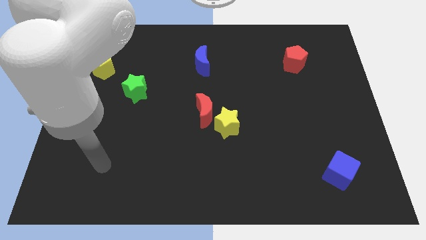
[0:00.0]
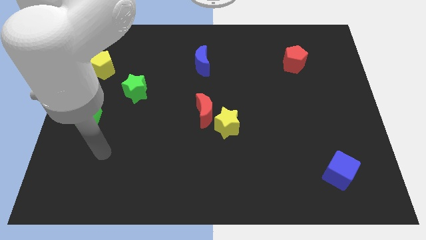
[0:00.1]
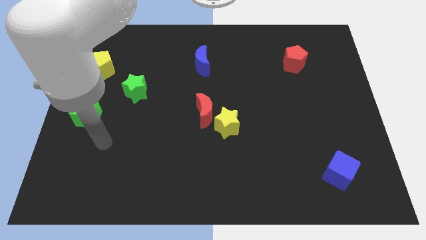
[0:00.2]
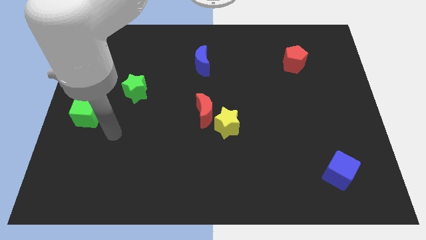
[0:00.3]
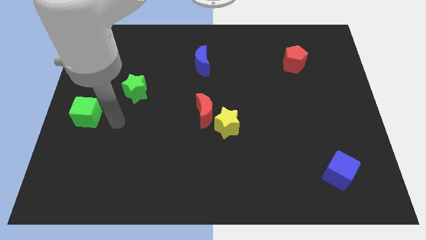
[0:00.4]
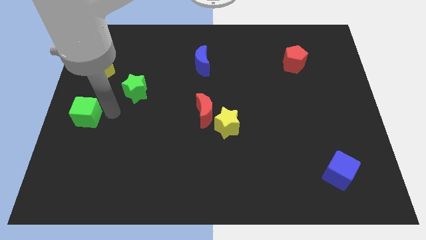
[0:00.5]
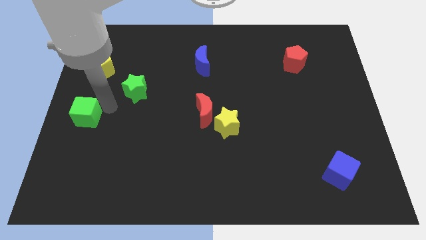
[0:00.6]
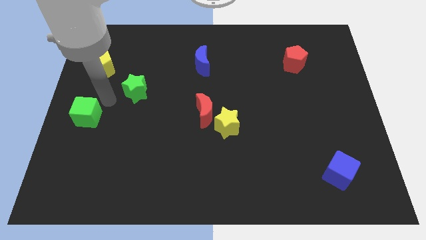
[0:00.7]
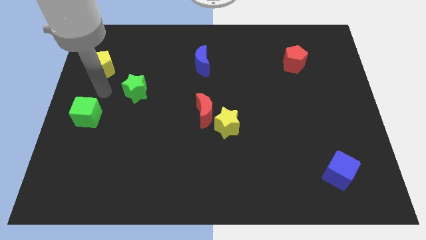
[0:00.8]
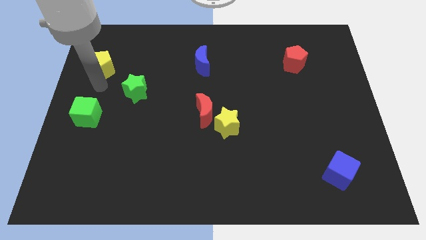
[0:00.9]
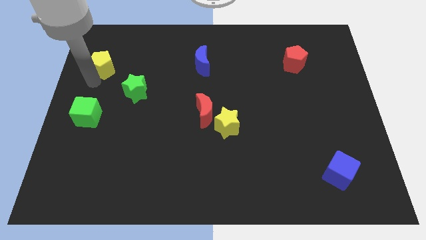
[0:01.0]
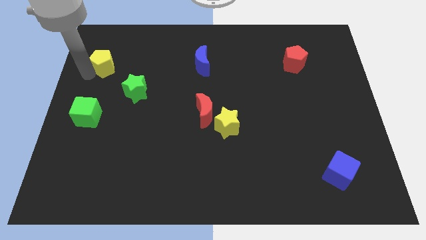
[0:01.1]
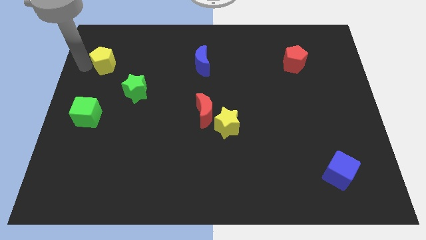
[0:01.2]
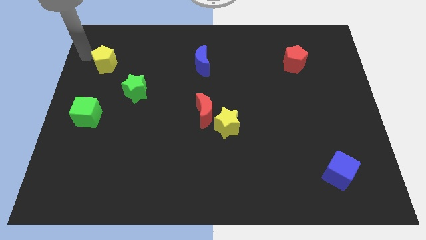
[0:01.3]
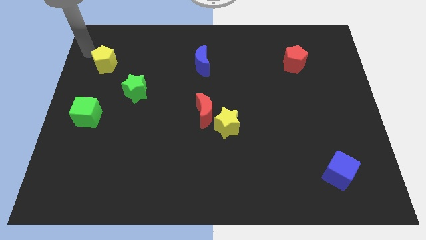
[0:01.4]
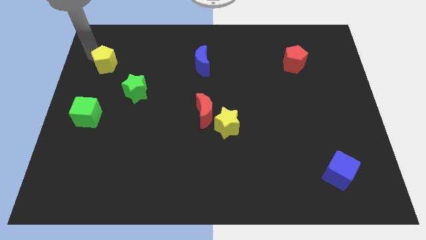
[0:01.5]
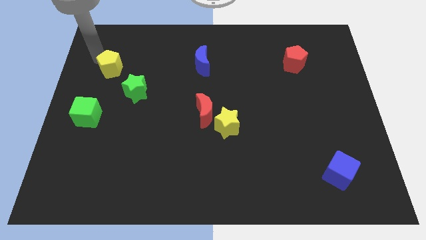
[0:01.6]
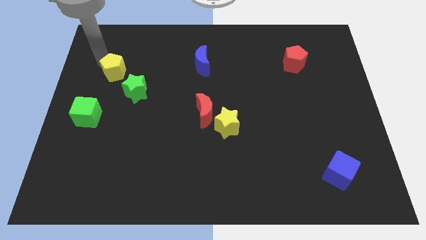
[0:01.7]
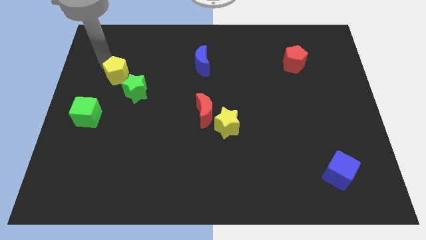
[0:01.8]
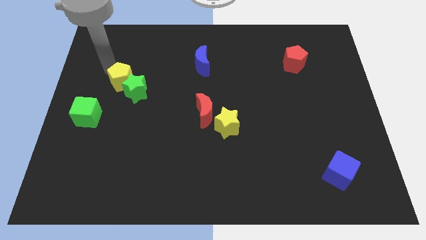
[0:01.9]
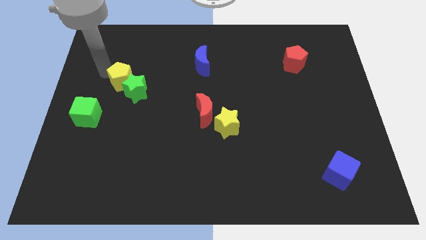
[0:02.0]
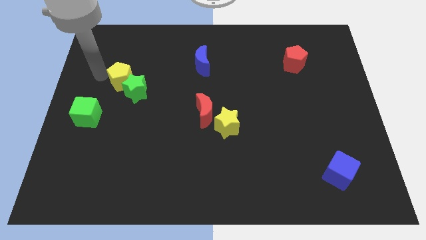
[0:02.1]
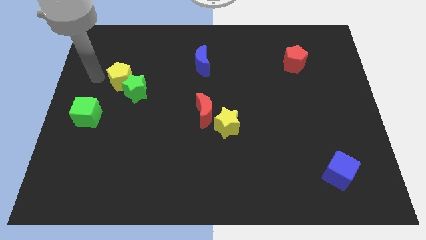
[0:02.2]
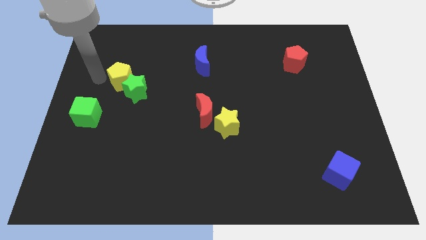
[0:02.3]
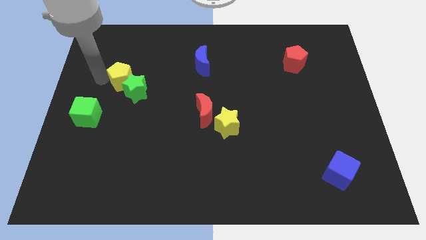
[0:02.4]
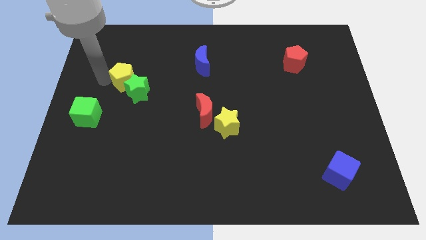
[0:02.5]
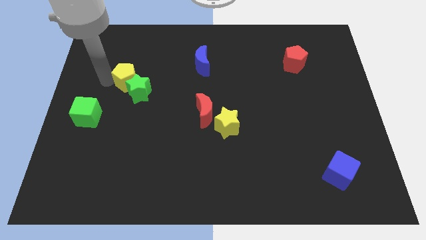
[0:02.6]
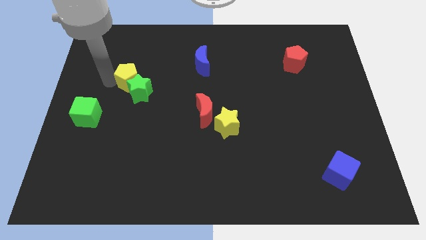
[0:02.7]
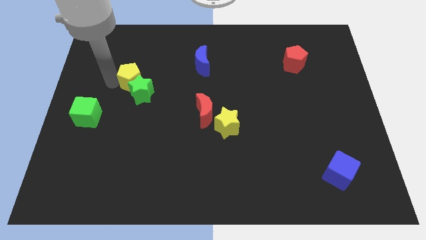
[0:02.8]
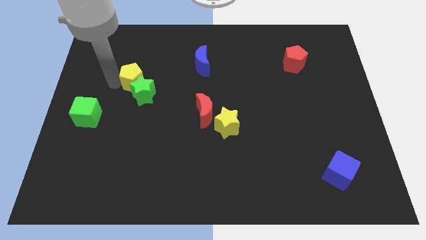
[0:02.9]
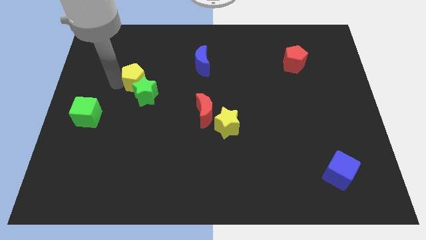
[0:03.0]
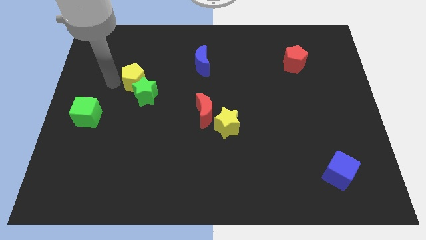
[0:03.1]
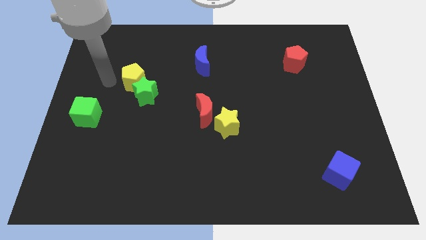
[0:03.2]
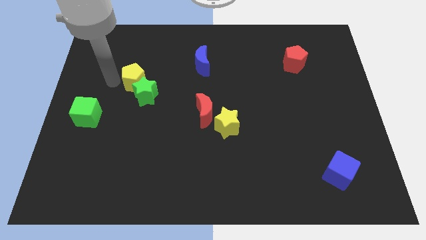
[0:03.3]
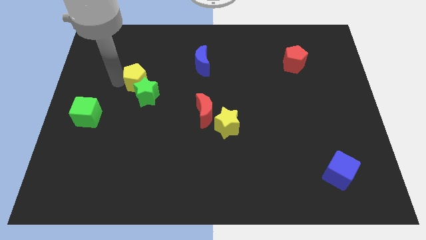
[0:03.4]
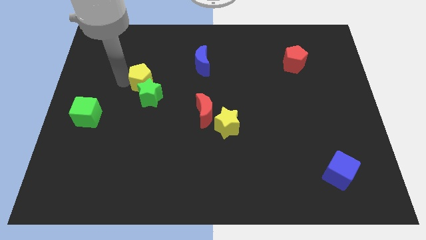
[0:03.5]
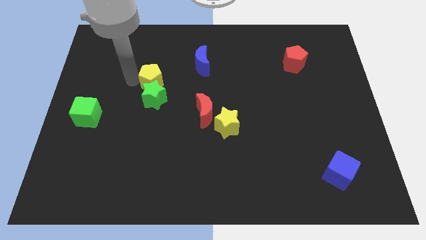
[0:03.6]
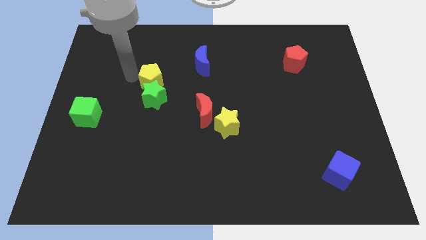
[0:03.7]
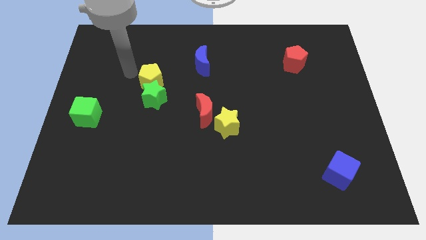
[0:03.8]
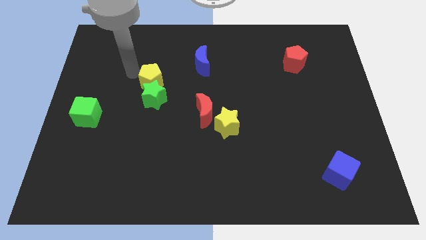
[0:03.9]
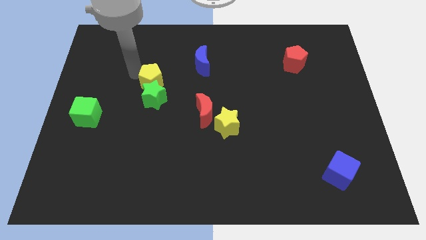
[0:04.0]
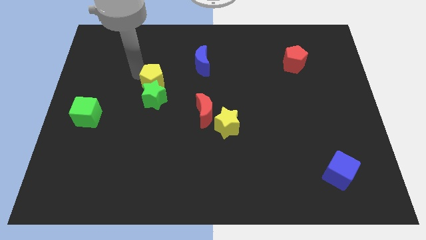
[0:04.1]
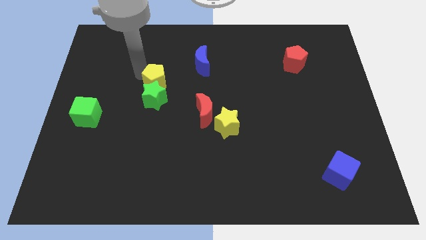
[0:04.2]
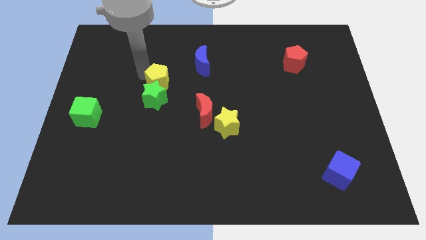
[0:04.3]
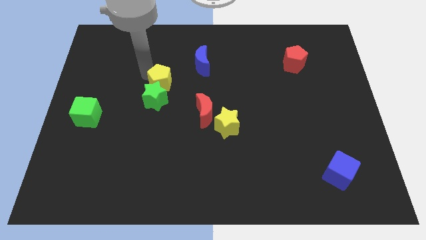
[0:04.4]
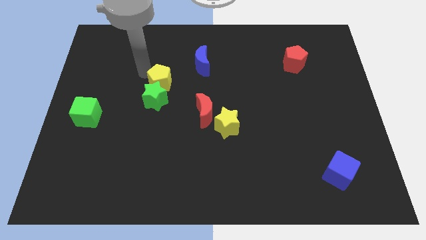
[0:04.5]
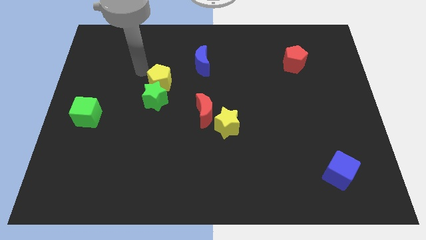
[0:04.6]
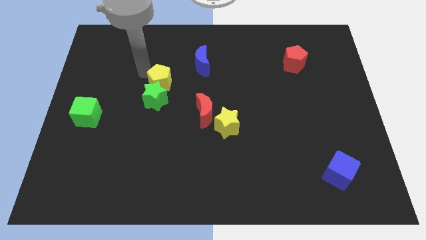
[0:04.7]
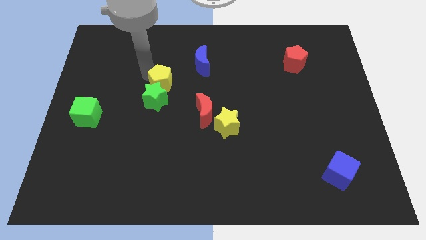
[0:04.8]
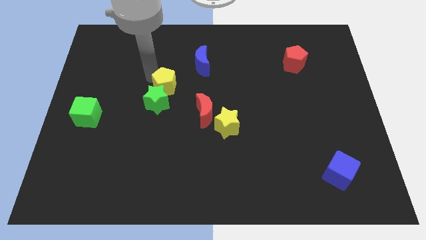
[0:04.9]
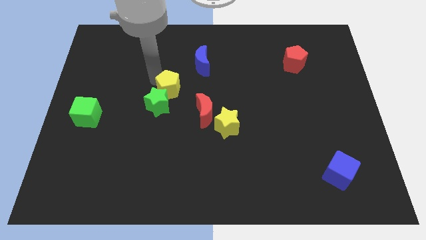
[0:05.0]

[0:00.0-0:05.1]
move the yellow pentagon to the center

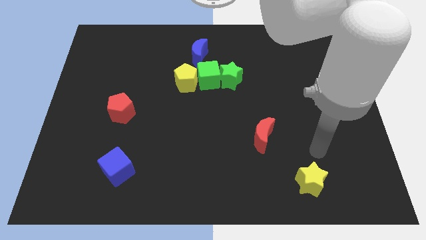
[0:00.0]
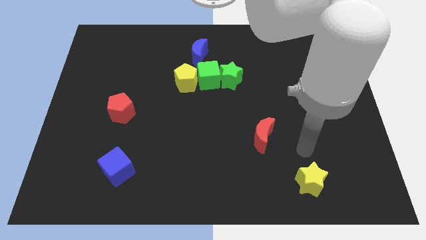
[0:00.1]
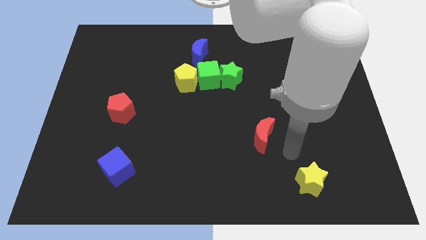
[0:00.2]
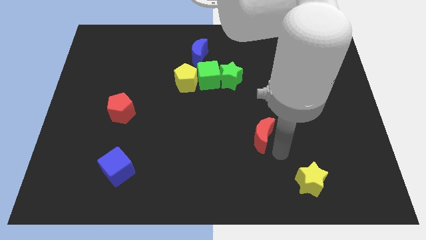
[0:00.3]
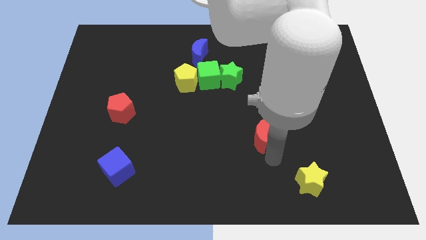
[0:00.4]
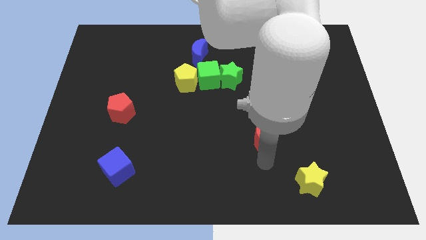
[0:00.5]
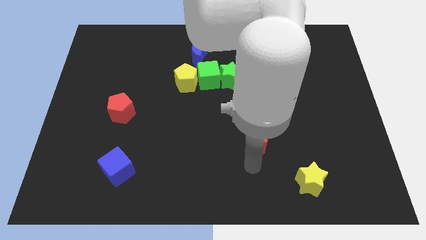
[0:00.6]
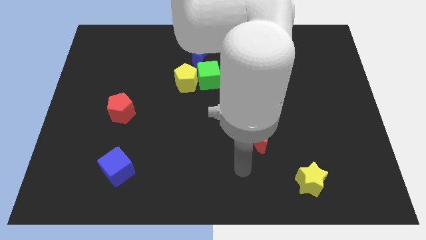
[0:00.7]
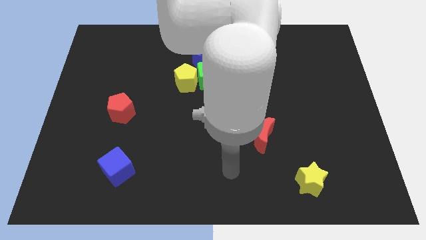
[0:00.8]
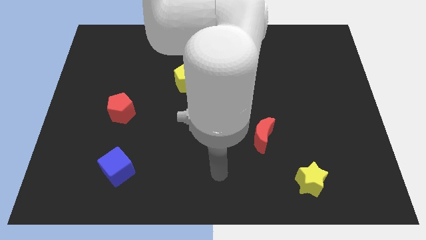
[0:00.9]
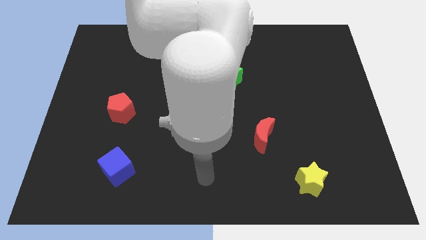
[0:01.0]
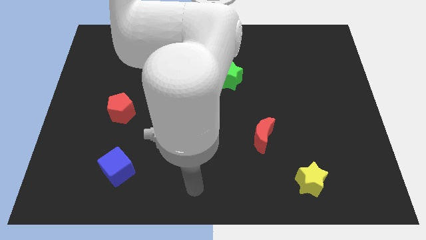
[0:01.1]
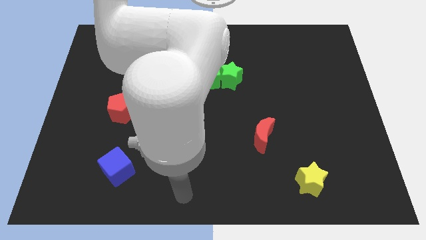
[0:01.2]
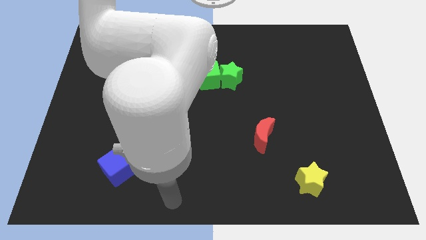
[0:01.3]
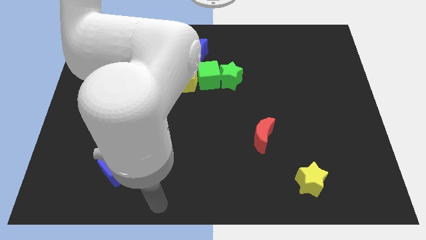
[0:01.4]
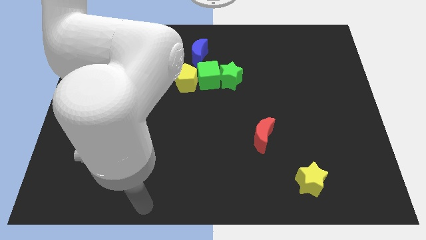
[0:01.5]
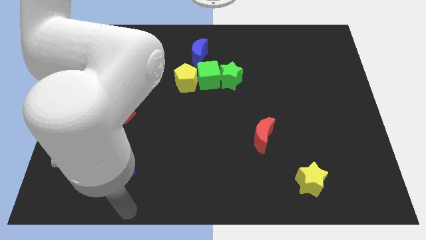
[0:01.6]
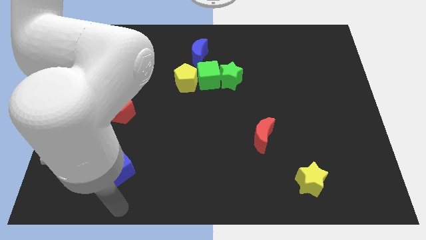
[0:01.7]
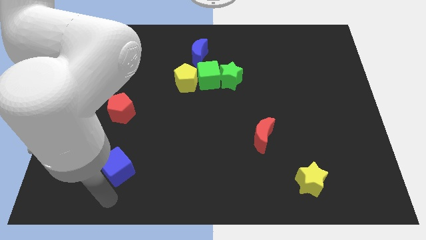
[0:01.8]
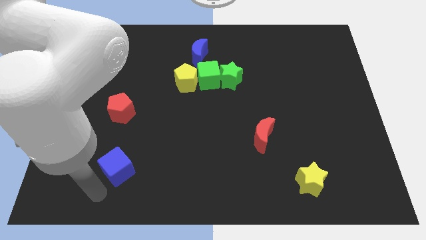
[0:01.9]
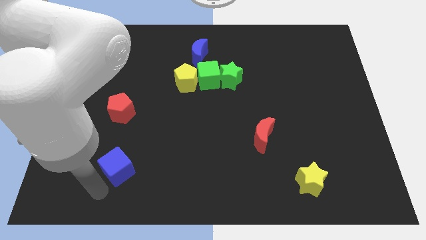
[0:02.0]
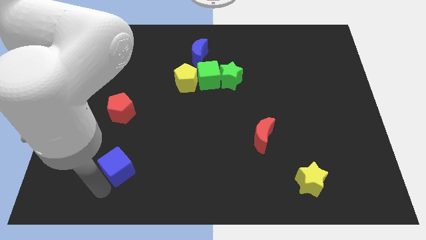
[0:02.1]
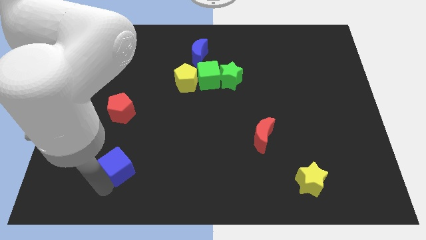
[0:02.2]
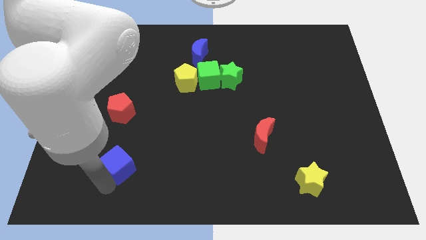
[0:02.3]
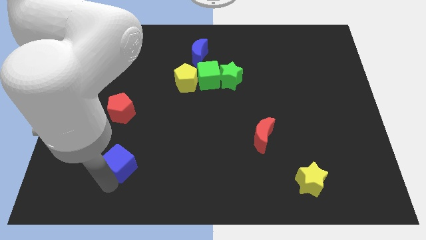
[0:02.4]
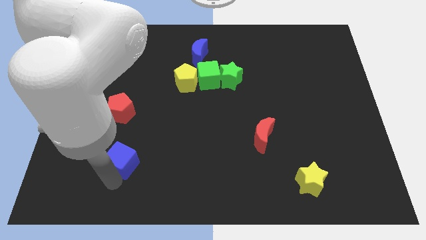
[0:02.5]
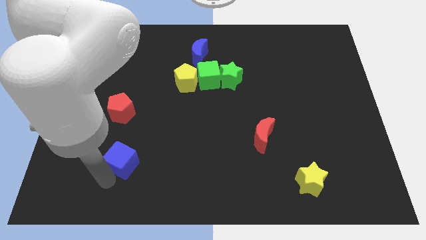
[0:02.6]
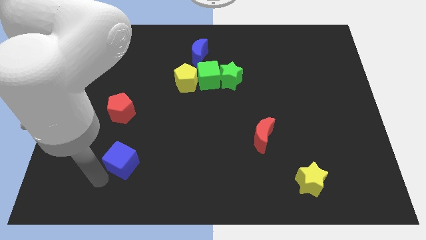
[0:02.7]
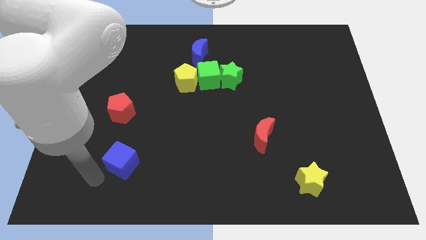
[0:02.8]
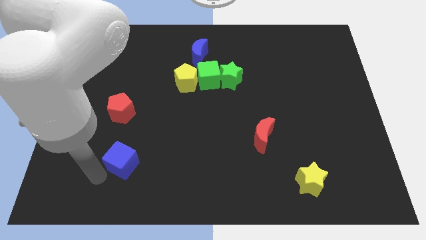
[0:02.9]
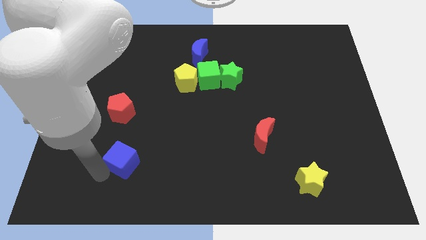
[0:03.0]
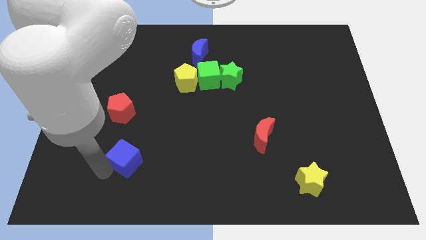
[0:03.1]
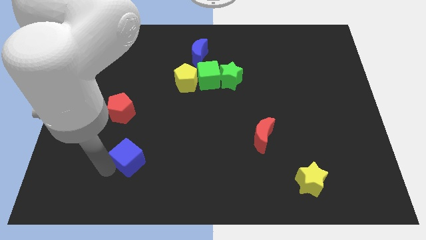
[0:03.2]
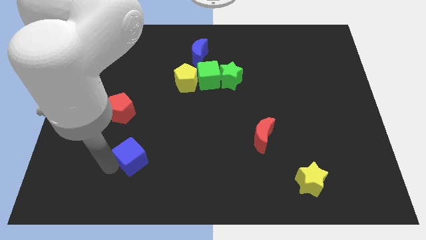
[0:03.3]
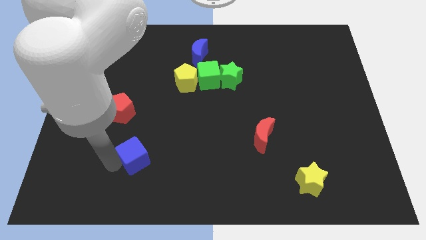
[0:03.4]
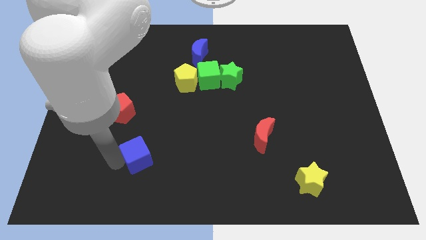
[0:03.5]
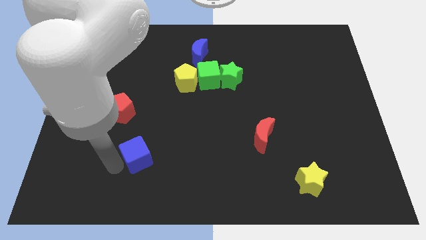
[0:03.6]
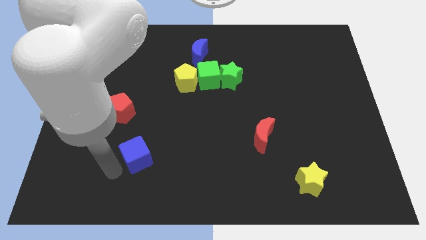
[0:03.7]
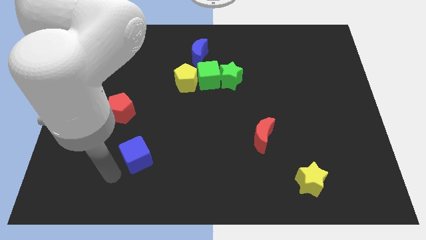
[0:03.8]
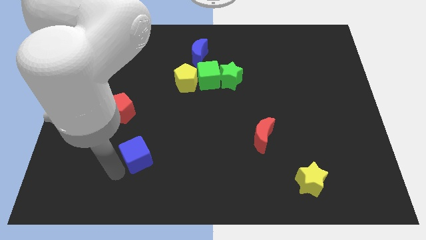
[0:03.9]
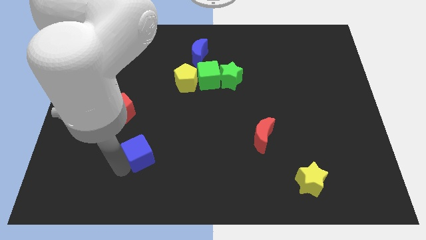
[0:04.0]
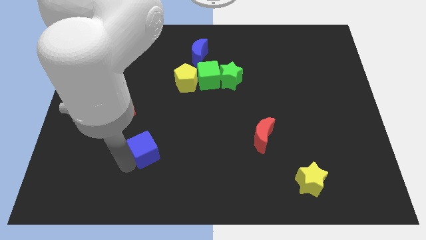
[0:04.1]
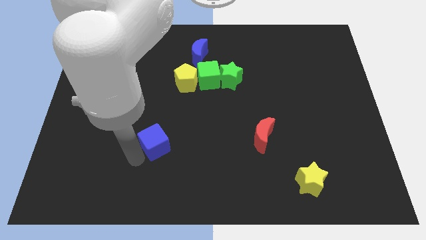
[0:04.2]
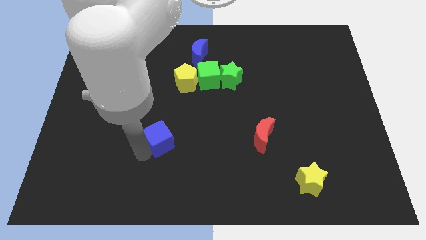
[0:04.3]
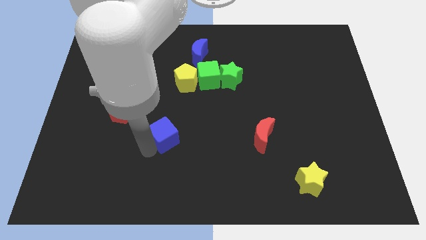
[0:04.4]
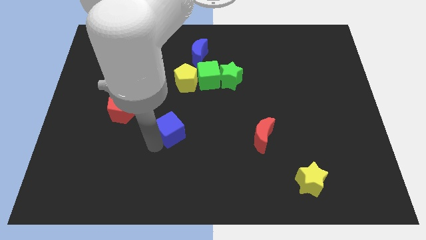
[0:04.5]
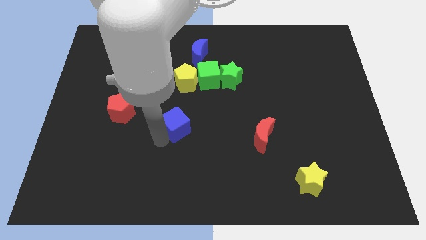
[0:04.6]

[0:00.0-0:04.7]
push the blue cube to the middle of the board
